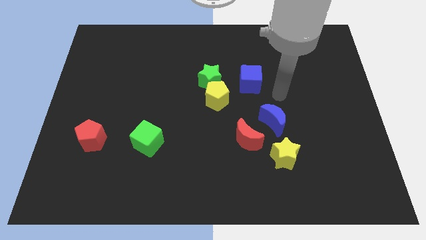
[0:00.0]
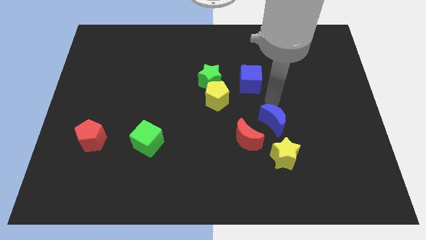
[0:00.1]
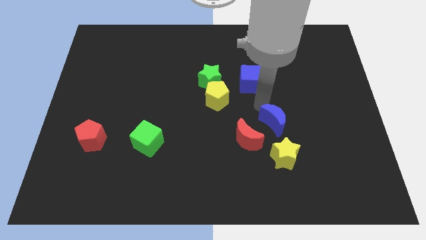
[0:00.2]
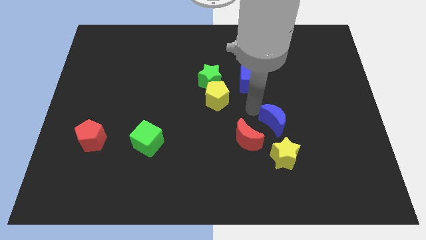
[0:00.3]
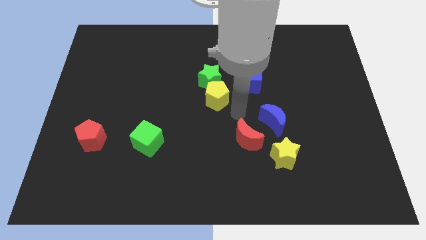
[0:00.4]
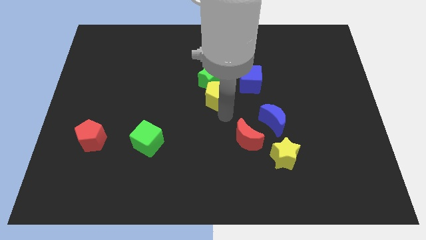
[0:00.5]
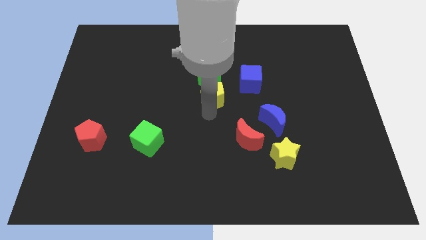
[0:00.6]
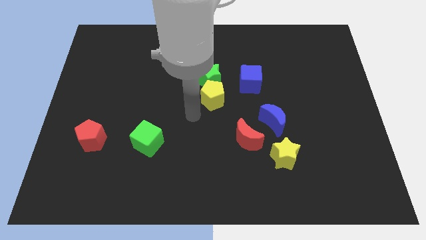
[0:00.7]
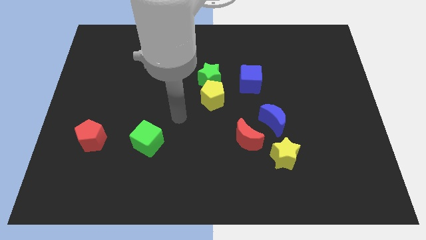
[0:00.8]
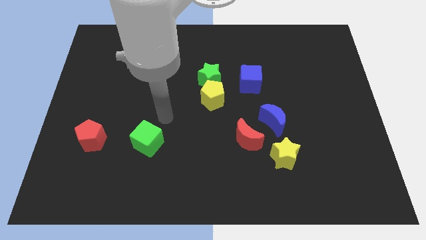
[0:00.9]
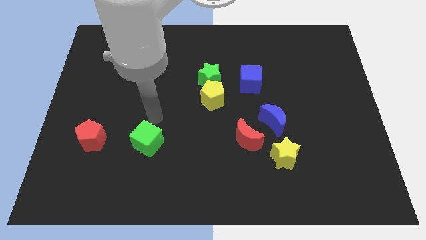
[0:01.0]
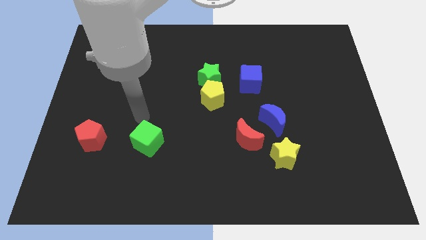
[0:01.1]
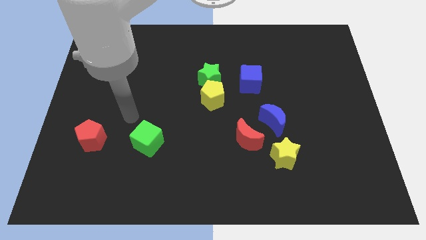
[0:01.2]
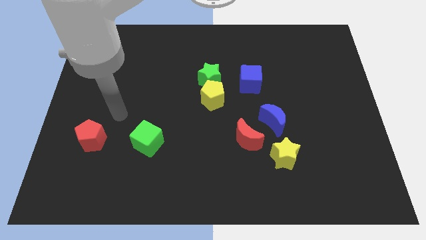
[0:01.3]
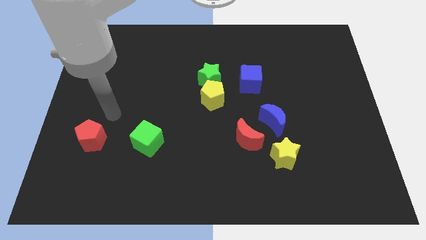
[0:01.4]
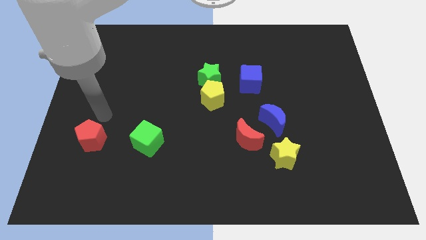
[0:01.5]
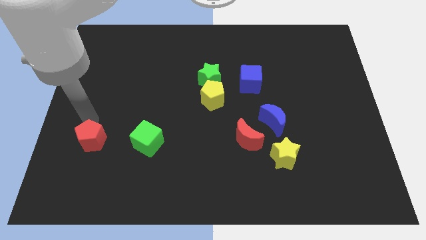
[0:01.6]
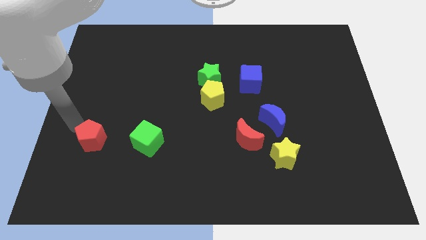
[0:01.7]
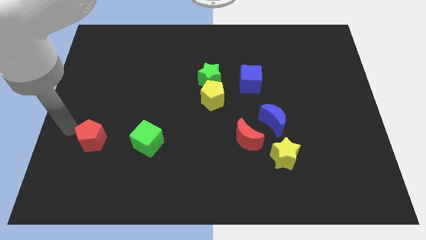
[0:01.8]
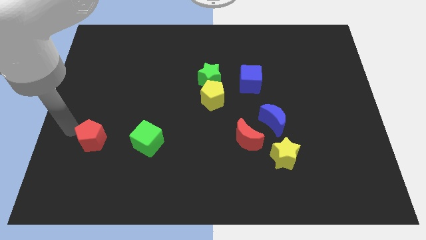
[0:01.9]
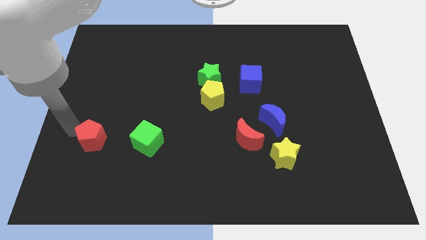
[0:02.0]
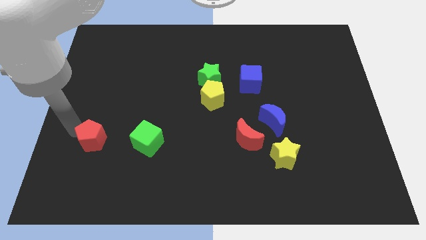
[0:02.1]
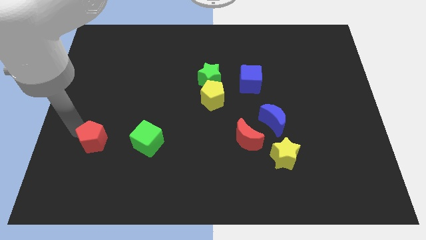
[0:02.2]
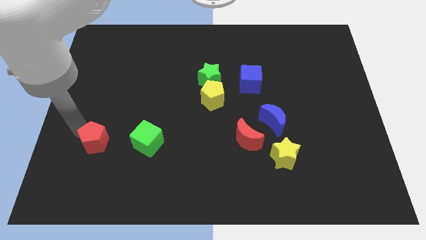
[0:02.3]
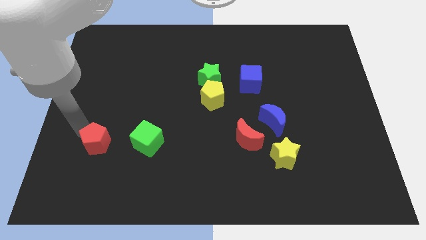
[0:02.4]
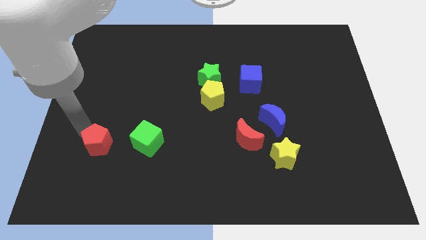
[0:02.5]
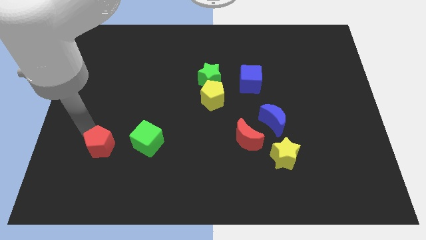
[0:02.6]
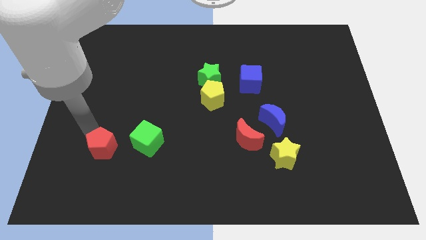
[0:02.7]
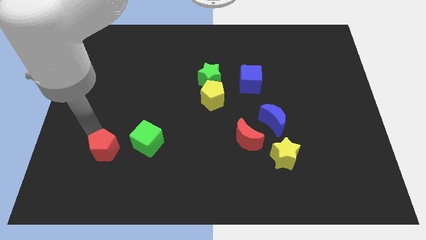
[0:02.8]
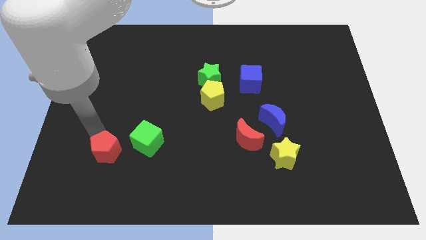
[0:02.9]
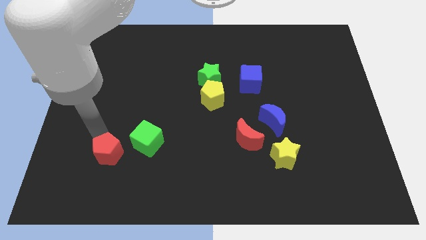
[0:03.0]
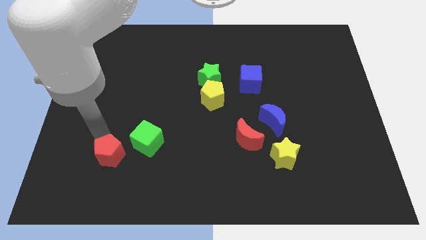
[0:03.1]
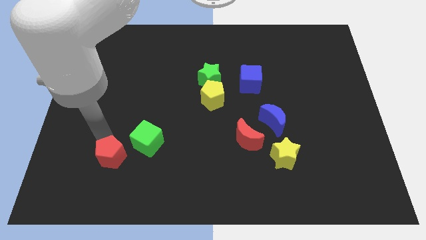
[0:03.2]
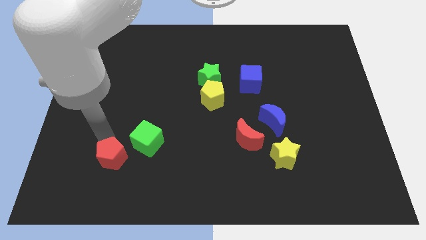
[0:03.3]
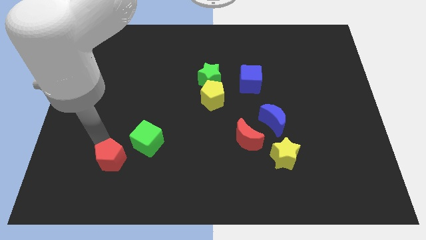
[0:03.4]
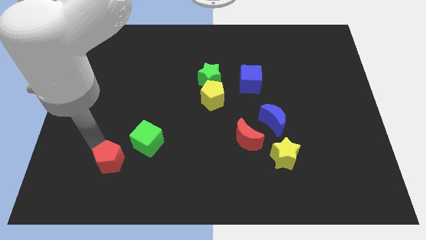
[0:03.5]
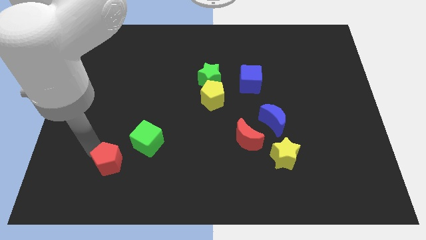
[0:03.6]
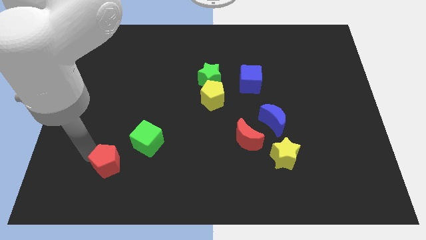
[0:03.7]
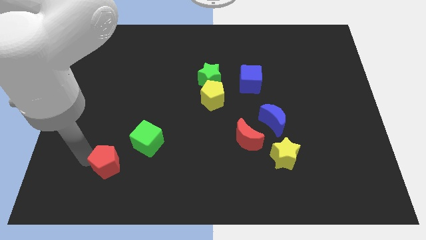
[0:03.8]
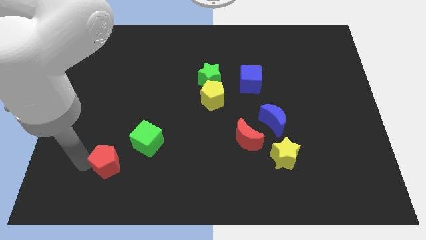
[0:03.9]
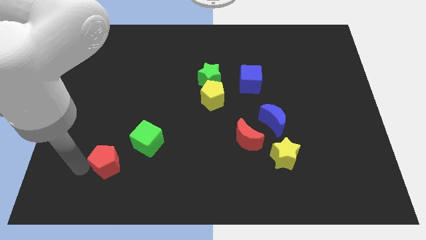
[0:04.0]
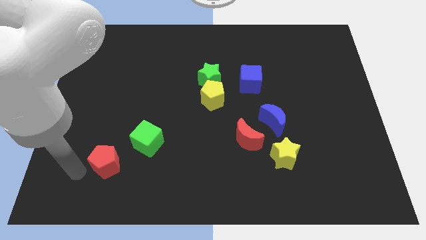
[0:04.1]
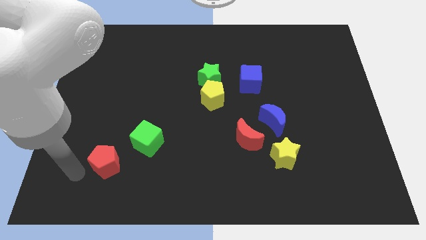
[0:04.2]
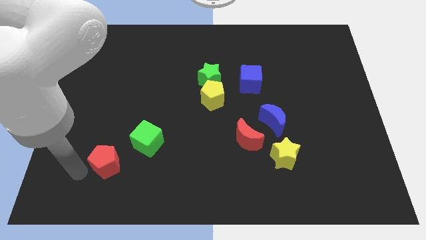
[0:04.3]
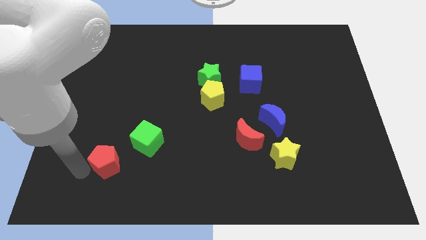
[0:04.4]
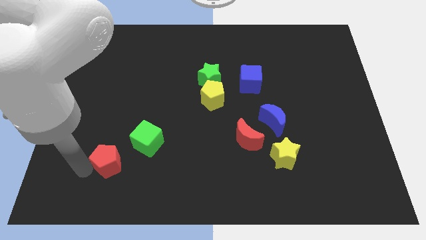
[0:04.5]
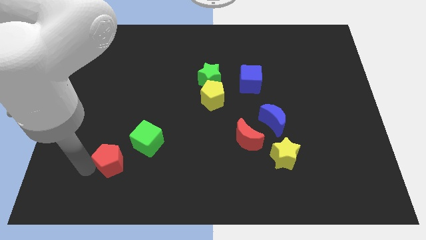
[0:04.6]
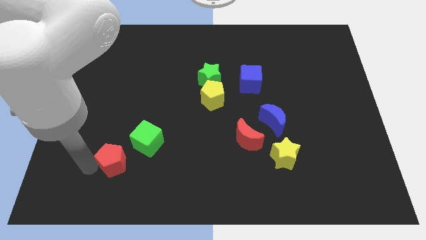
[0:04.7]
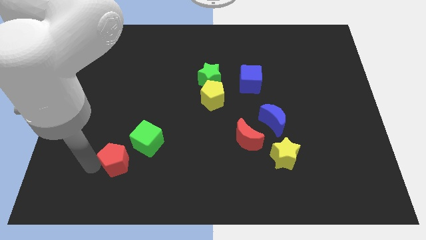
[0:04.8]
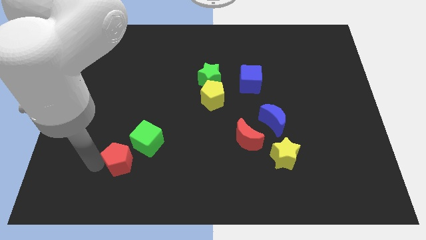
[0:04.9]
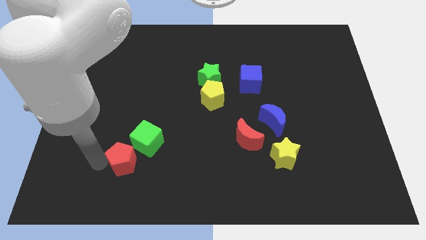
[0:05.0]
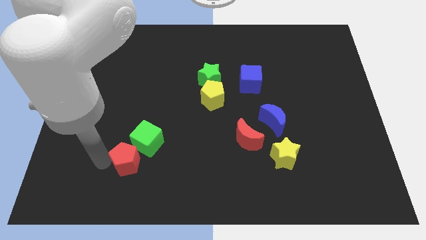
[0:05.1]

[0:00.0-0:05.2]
slide the red pentagon right slightly

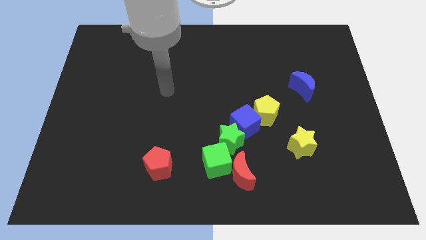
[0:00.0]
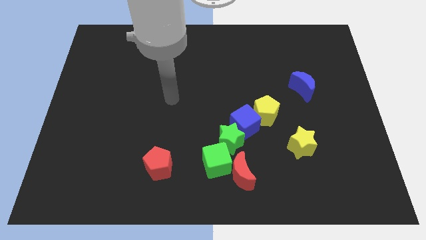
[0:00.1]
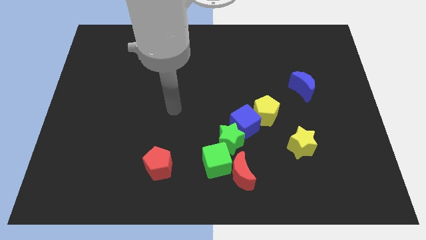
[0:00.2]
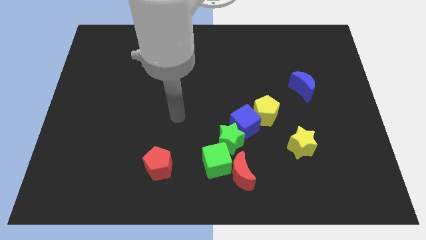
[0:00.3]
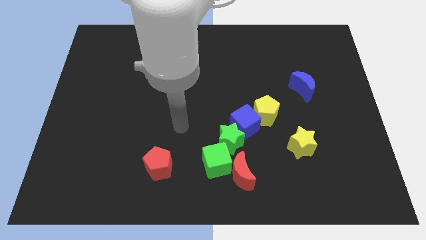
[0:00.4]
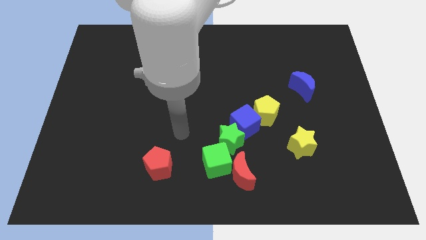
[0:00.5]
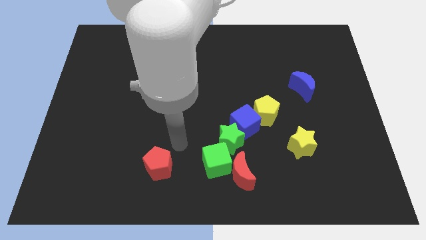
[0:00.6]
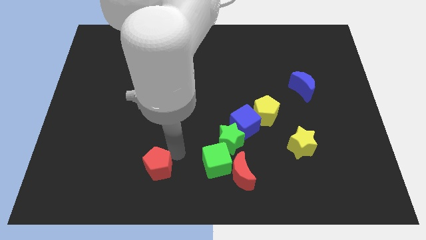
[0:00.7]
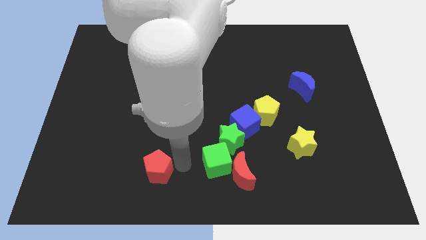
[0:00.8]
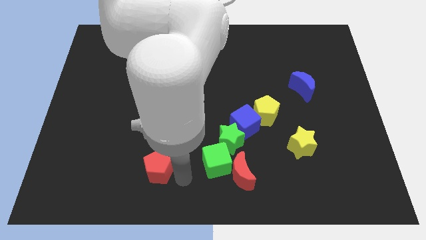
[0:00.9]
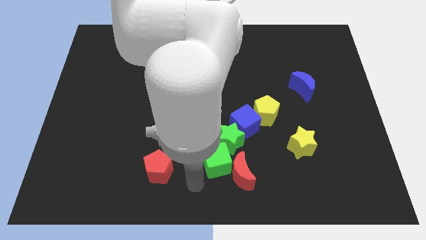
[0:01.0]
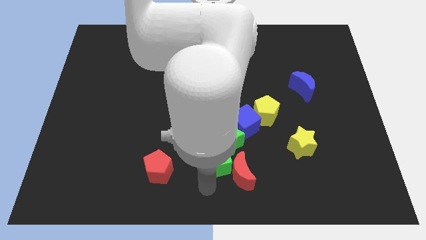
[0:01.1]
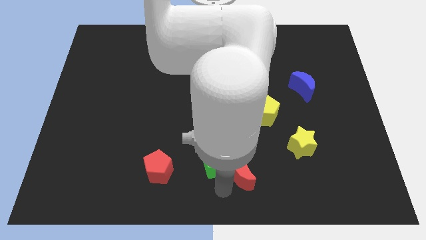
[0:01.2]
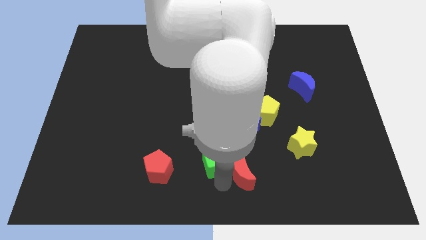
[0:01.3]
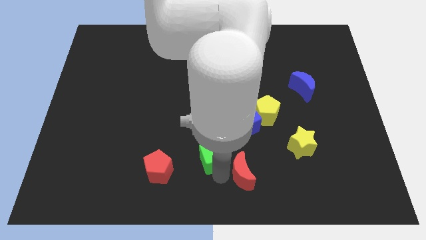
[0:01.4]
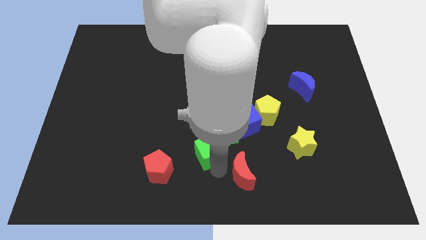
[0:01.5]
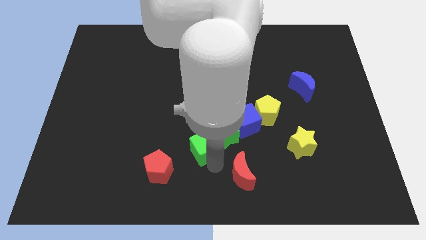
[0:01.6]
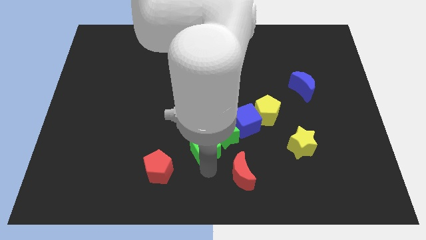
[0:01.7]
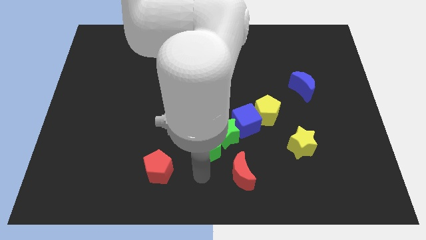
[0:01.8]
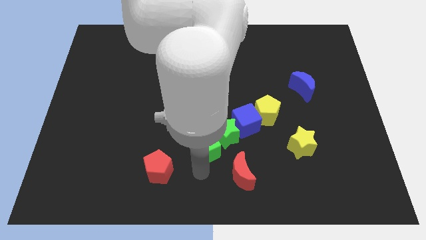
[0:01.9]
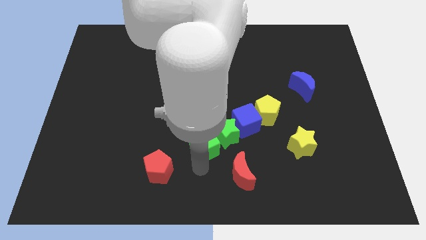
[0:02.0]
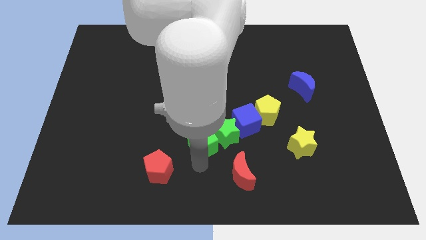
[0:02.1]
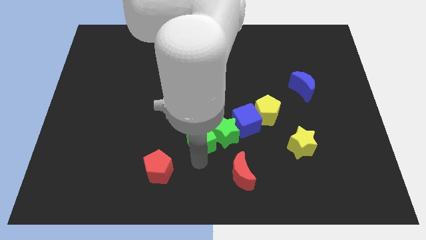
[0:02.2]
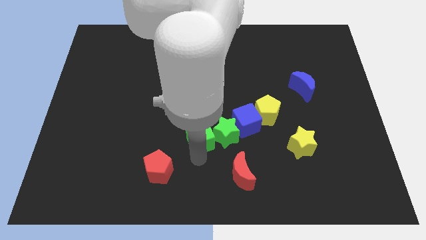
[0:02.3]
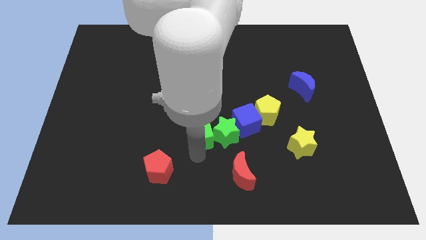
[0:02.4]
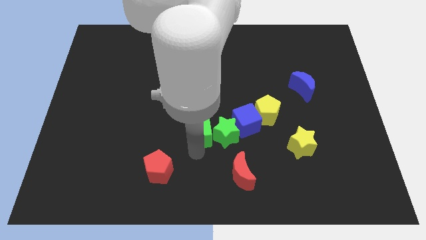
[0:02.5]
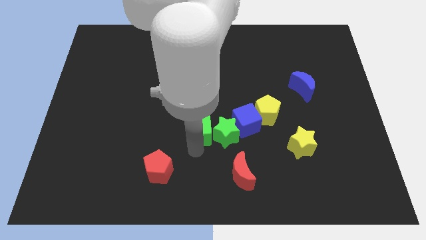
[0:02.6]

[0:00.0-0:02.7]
slightly move the green cube up

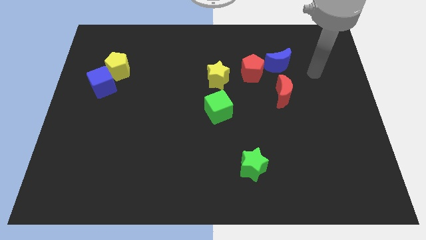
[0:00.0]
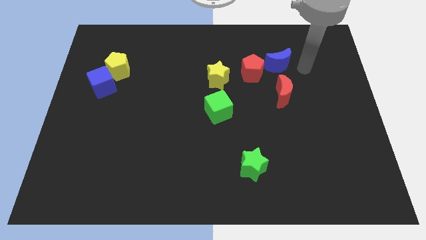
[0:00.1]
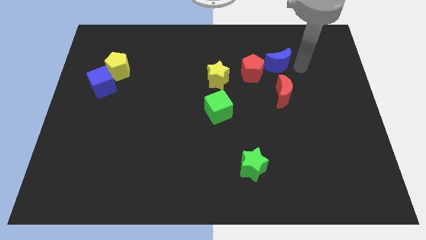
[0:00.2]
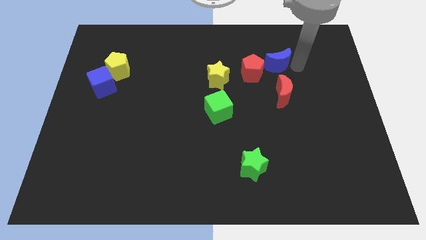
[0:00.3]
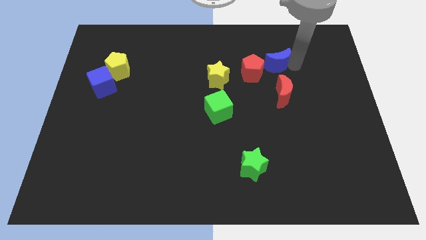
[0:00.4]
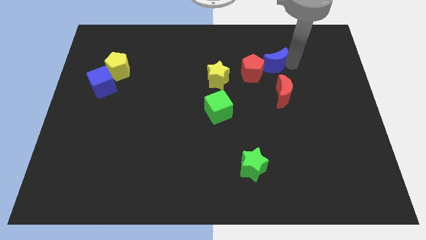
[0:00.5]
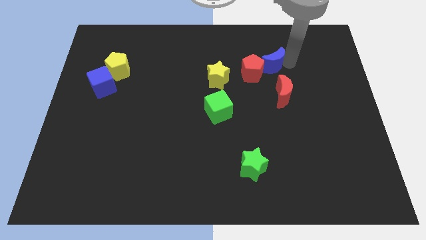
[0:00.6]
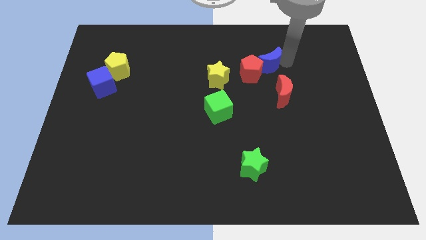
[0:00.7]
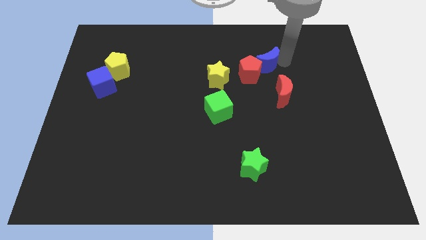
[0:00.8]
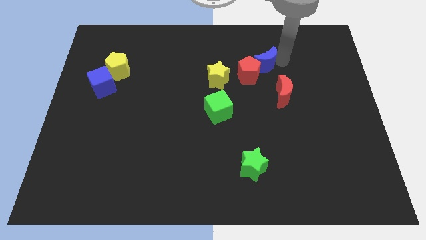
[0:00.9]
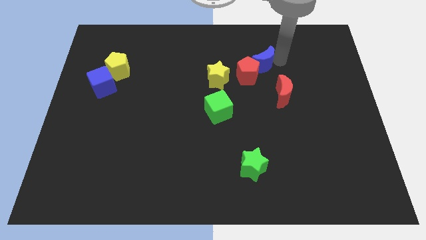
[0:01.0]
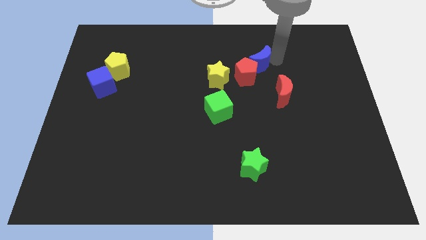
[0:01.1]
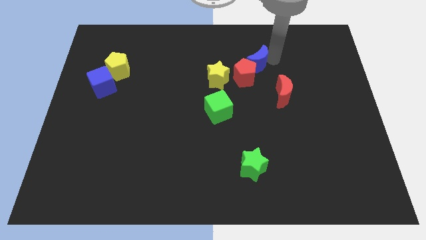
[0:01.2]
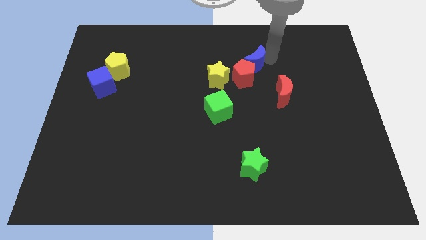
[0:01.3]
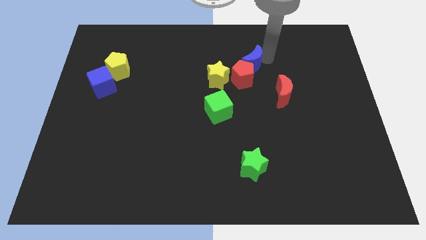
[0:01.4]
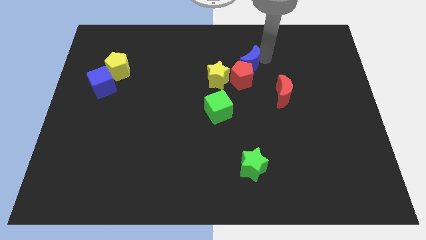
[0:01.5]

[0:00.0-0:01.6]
slide the blue moon to the left somewhat
